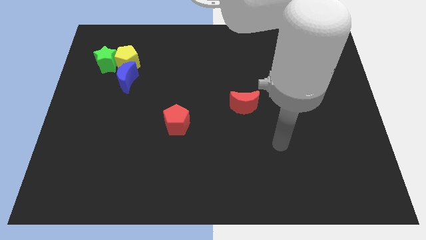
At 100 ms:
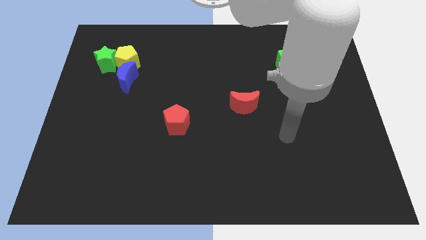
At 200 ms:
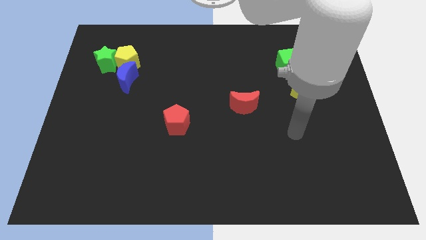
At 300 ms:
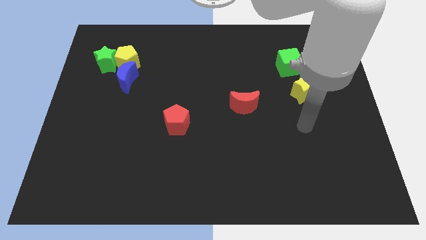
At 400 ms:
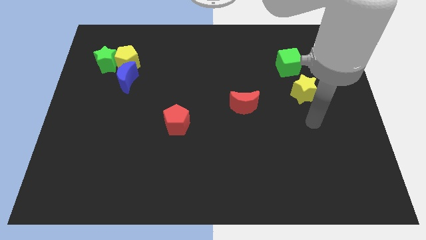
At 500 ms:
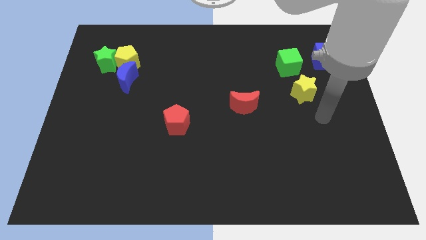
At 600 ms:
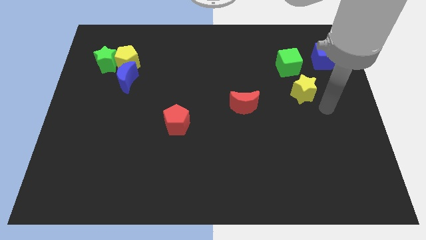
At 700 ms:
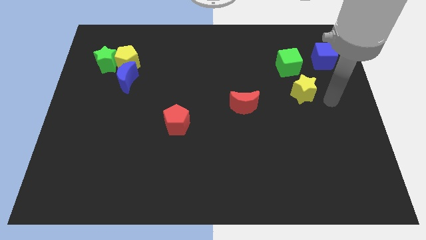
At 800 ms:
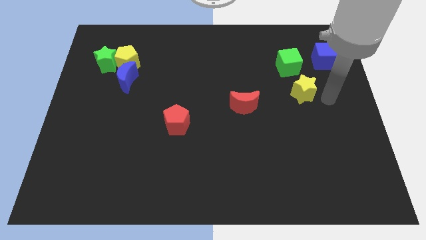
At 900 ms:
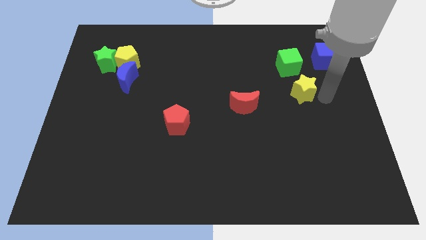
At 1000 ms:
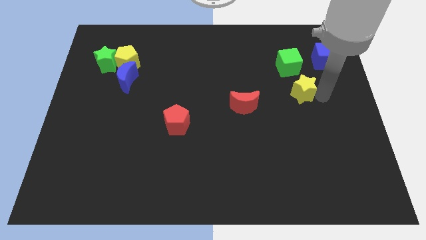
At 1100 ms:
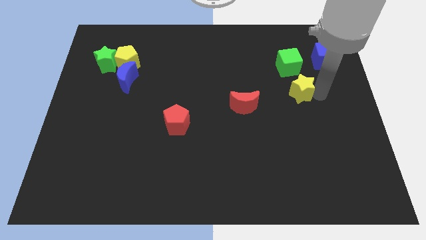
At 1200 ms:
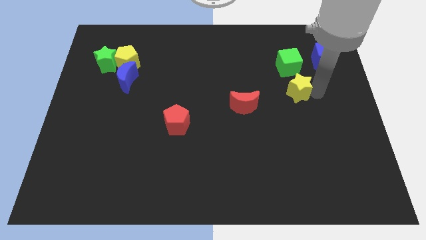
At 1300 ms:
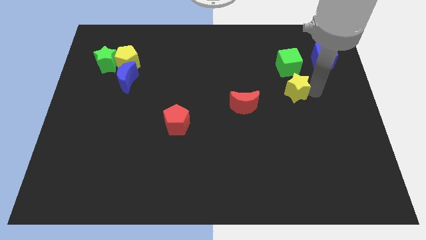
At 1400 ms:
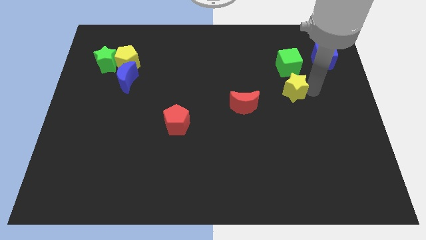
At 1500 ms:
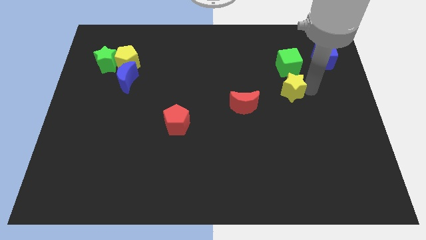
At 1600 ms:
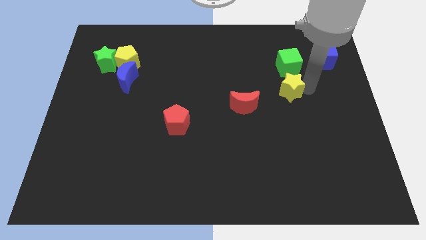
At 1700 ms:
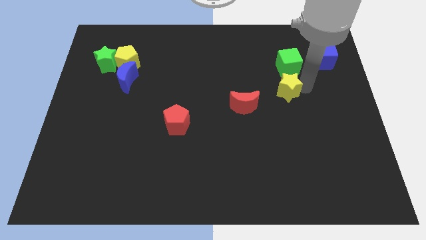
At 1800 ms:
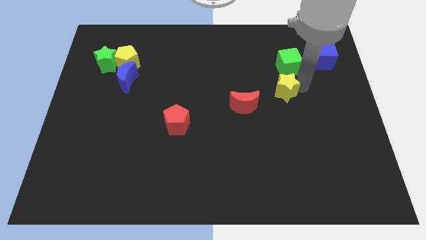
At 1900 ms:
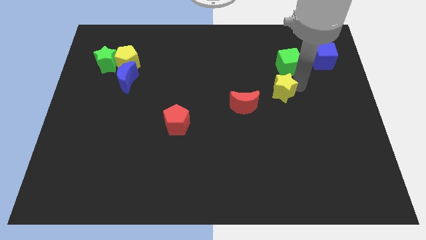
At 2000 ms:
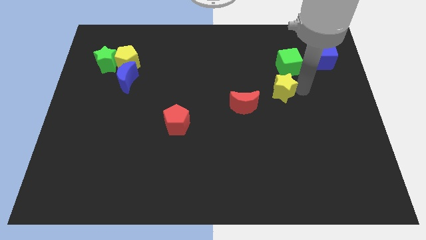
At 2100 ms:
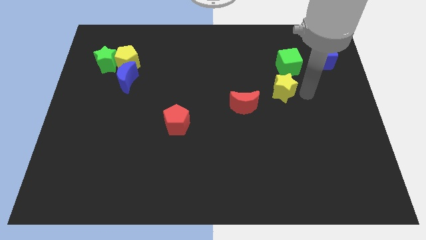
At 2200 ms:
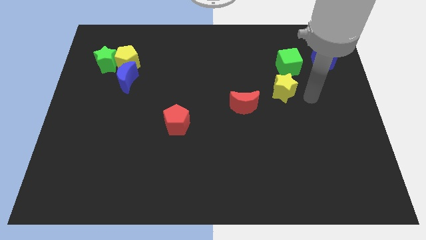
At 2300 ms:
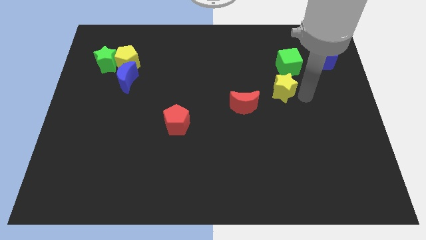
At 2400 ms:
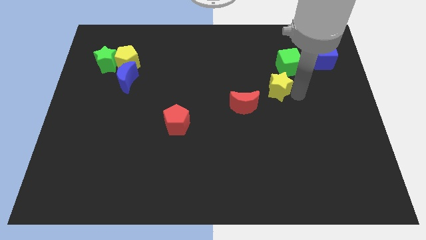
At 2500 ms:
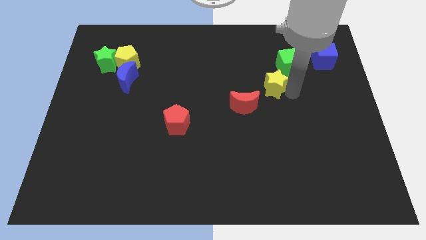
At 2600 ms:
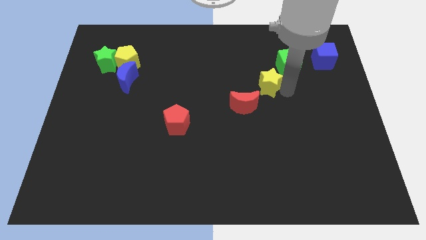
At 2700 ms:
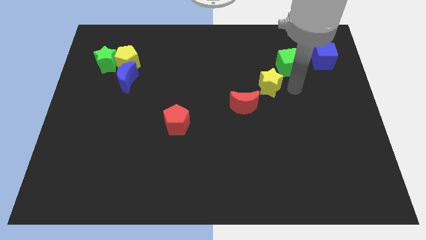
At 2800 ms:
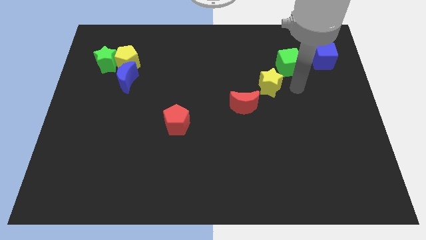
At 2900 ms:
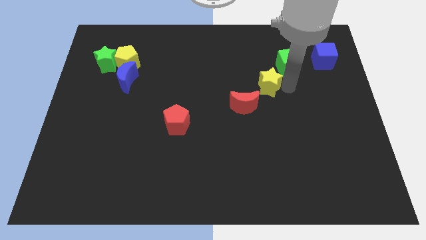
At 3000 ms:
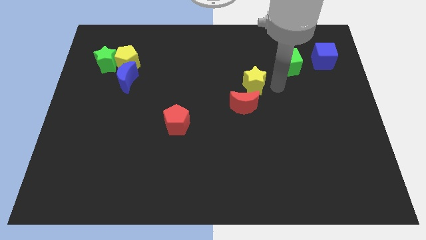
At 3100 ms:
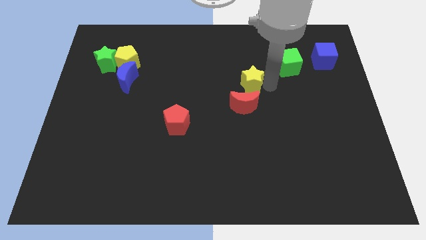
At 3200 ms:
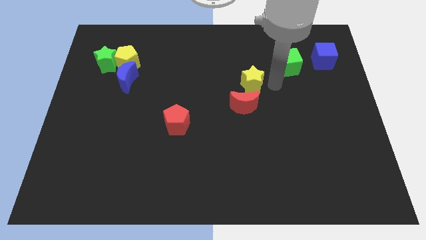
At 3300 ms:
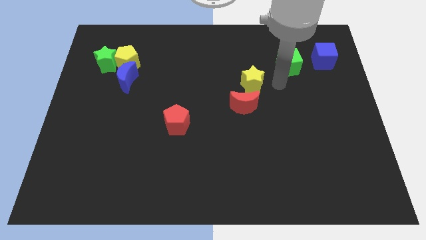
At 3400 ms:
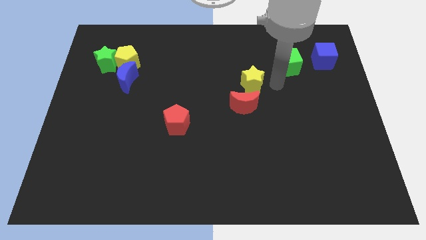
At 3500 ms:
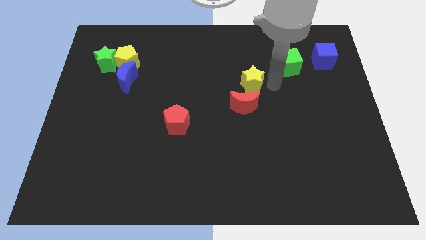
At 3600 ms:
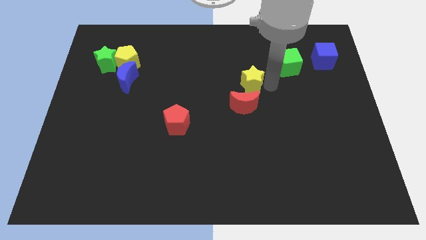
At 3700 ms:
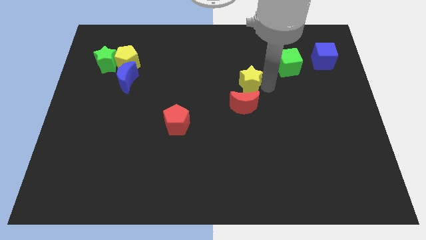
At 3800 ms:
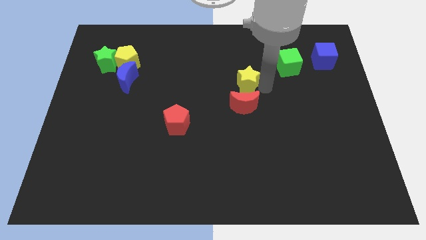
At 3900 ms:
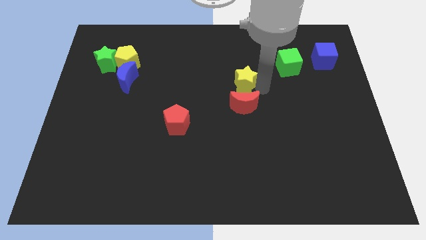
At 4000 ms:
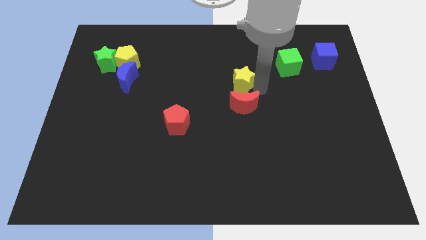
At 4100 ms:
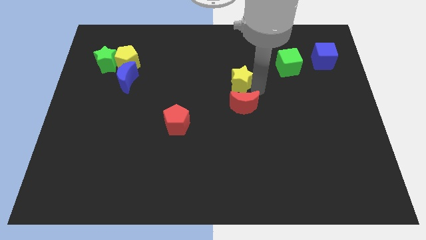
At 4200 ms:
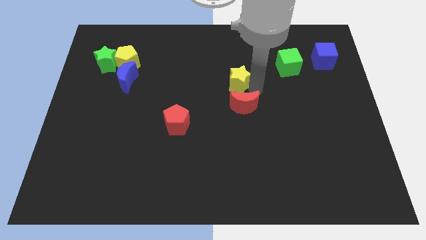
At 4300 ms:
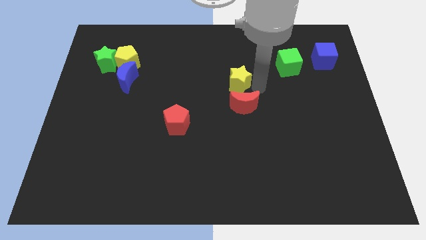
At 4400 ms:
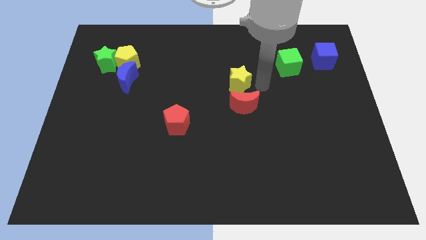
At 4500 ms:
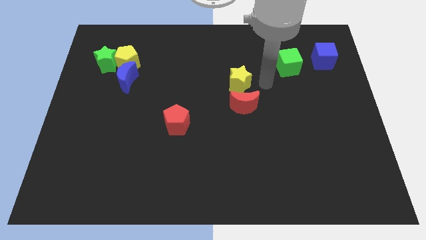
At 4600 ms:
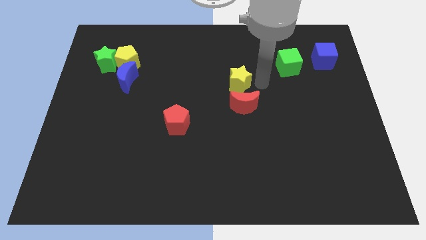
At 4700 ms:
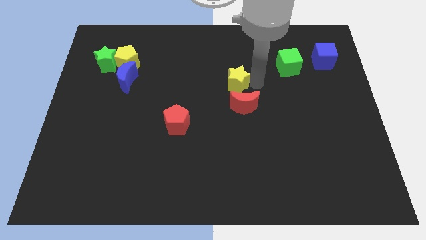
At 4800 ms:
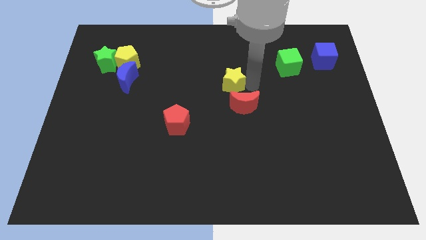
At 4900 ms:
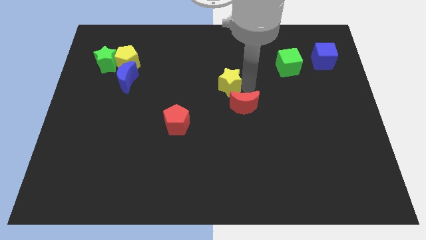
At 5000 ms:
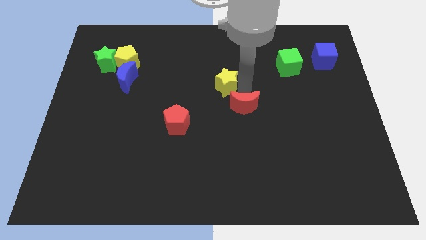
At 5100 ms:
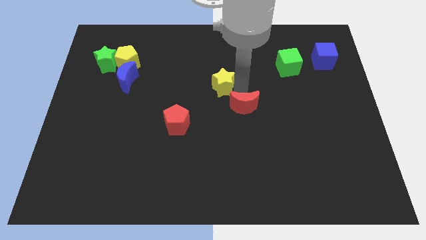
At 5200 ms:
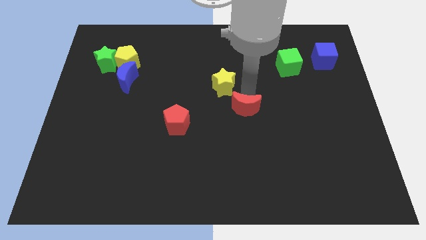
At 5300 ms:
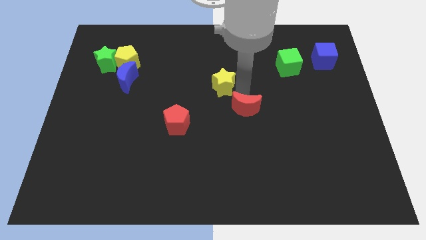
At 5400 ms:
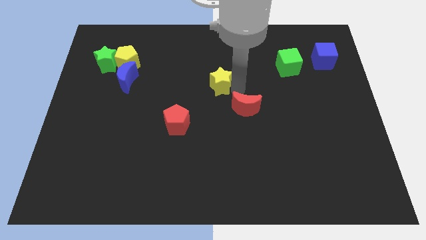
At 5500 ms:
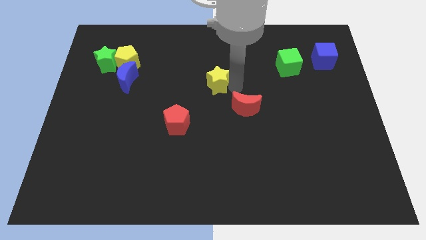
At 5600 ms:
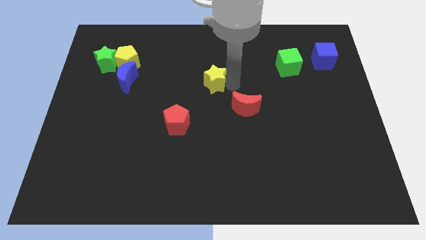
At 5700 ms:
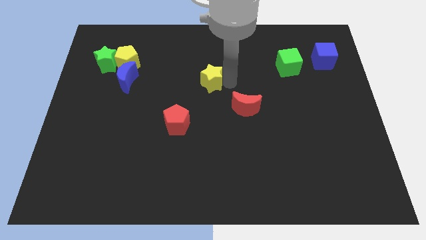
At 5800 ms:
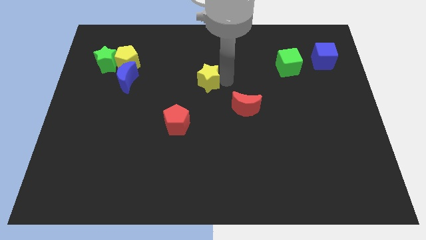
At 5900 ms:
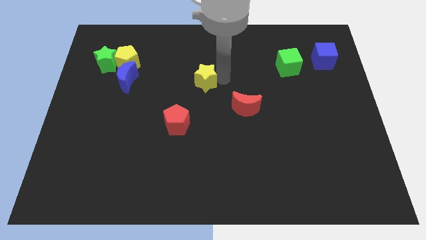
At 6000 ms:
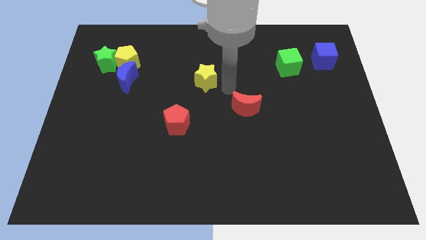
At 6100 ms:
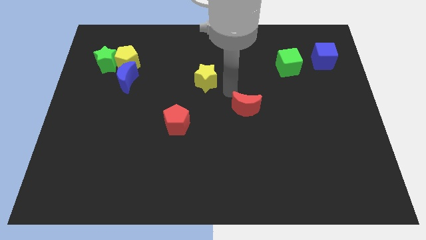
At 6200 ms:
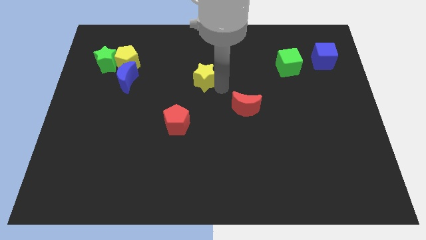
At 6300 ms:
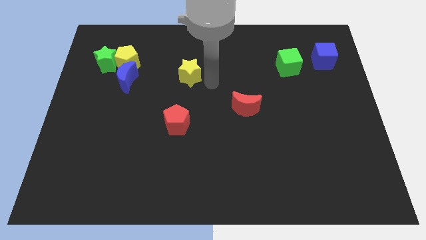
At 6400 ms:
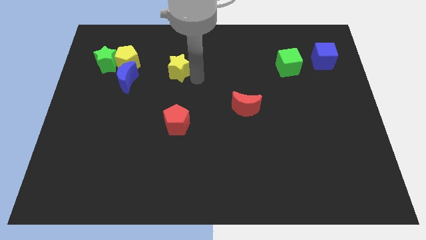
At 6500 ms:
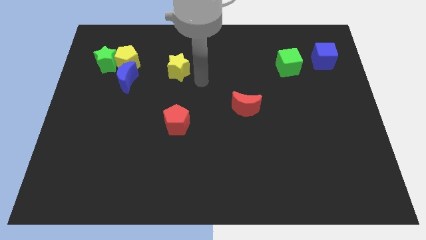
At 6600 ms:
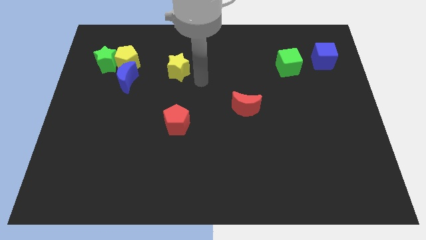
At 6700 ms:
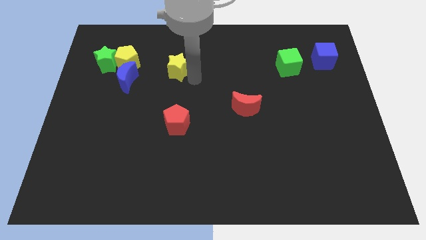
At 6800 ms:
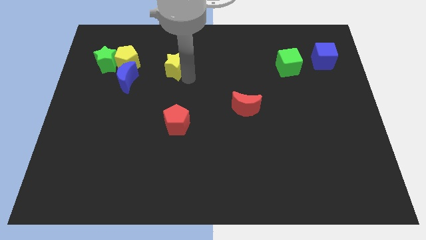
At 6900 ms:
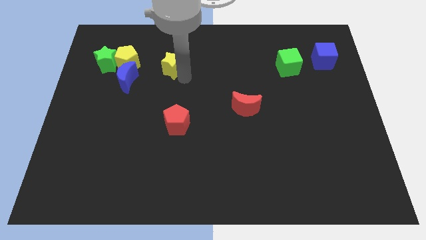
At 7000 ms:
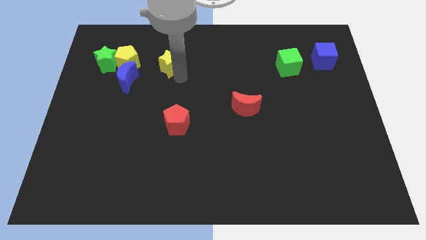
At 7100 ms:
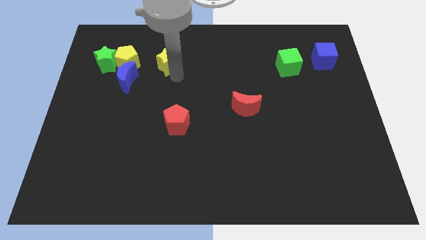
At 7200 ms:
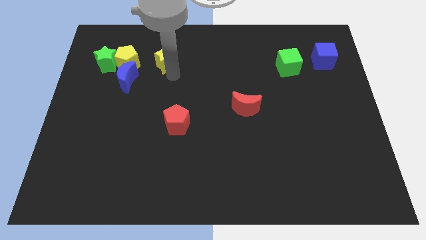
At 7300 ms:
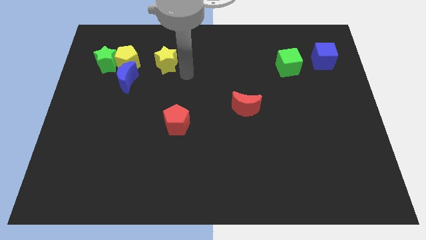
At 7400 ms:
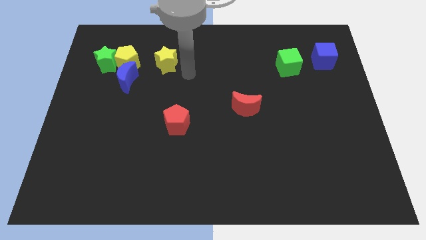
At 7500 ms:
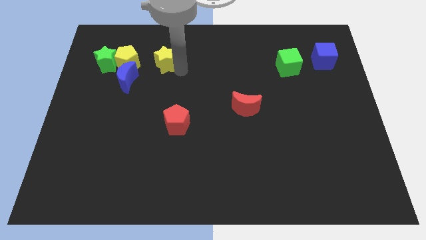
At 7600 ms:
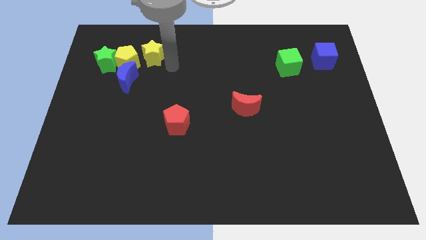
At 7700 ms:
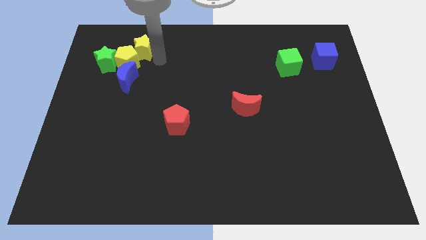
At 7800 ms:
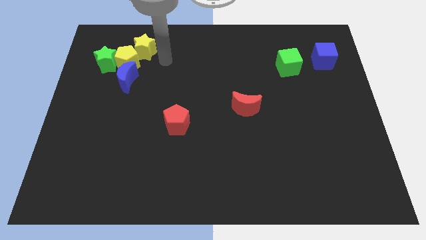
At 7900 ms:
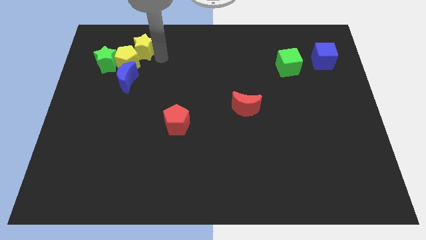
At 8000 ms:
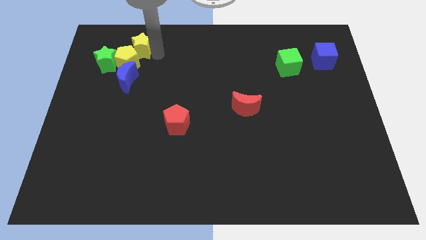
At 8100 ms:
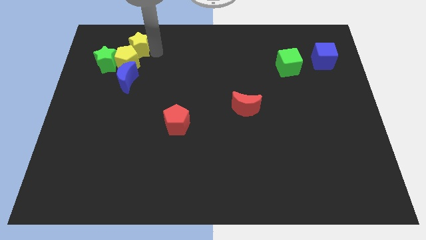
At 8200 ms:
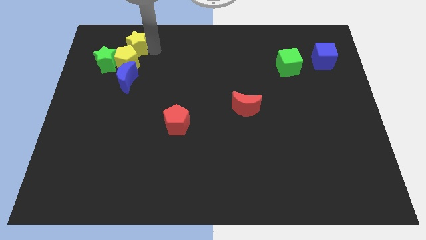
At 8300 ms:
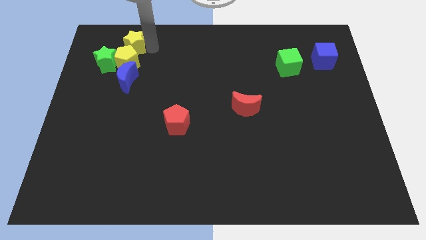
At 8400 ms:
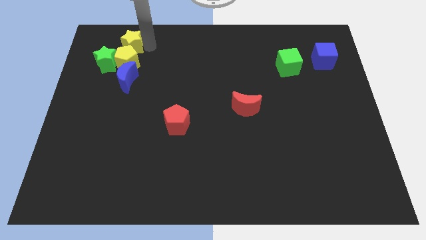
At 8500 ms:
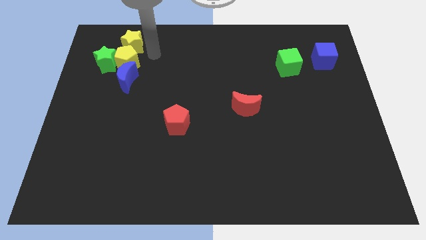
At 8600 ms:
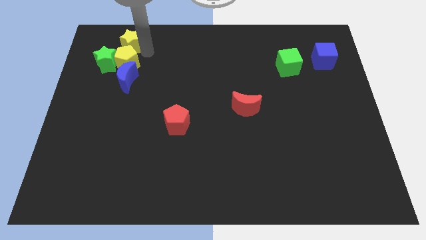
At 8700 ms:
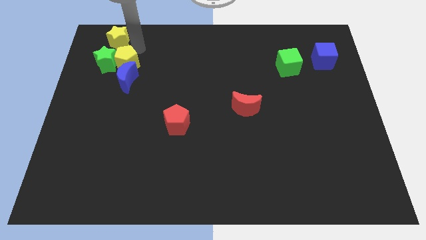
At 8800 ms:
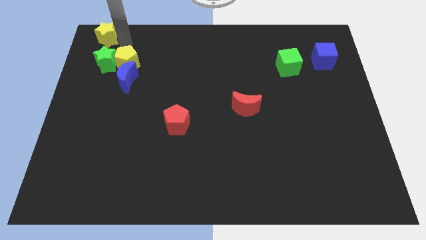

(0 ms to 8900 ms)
slide the yellow star to the top left
